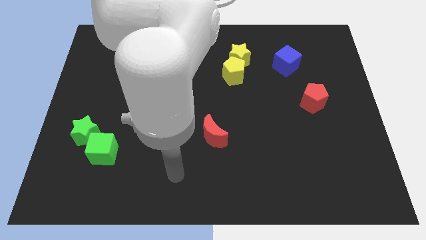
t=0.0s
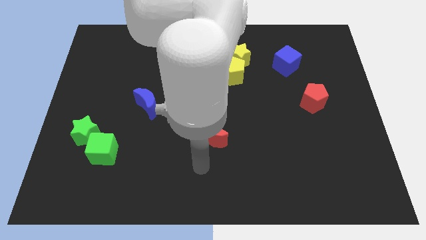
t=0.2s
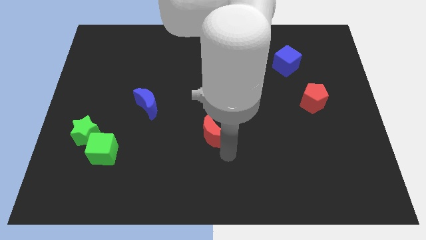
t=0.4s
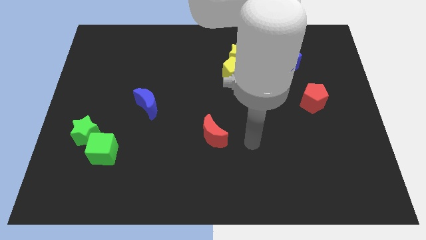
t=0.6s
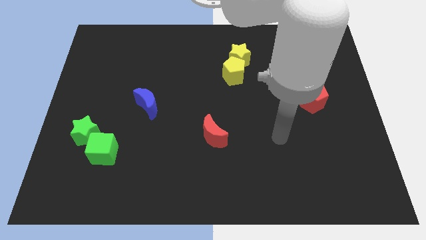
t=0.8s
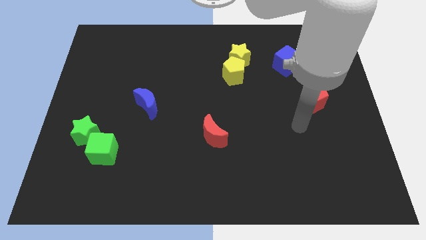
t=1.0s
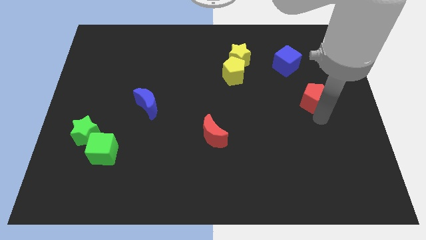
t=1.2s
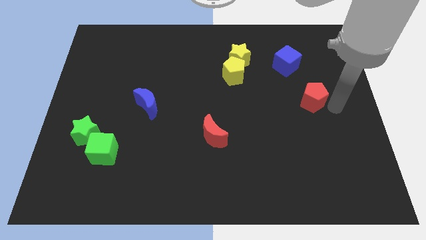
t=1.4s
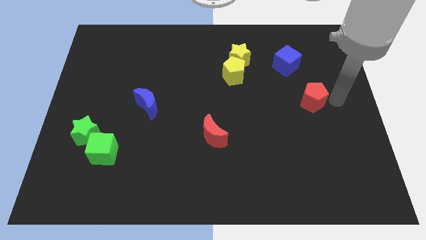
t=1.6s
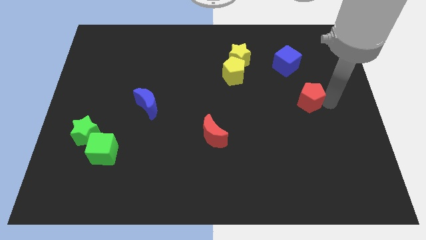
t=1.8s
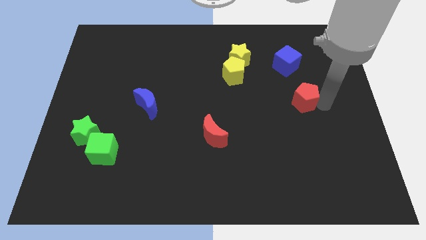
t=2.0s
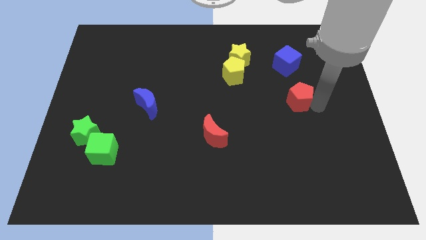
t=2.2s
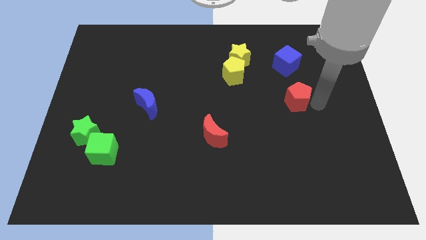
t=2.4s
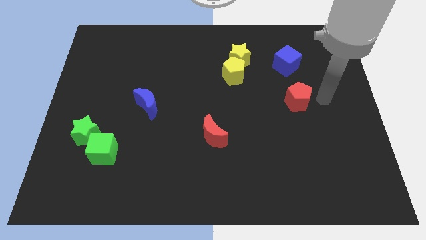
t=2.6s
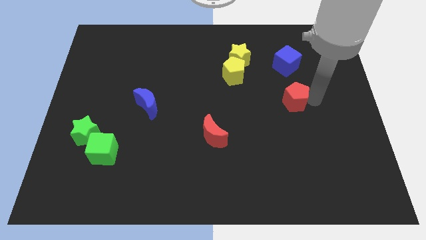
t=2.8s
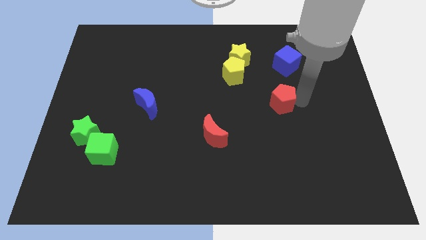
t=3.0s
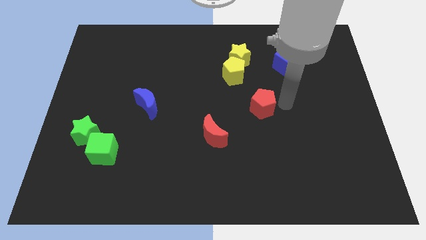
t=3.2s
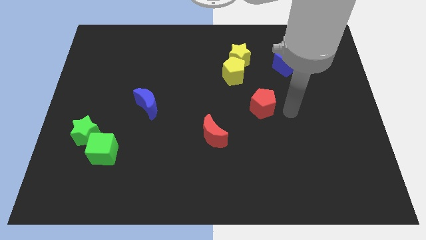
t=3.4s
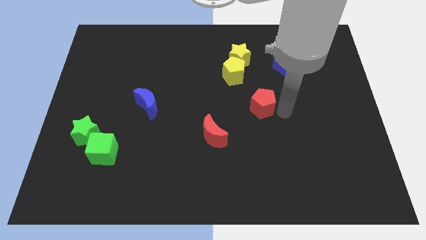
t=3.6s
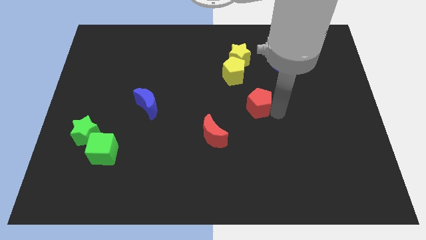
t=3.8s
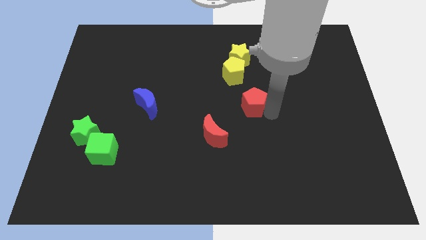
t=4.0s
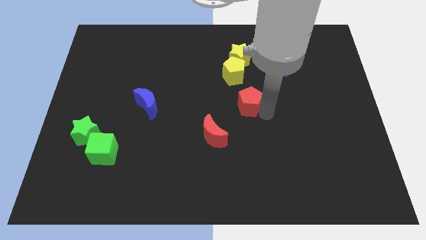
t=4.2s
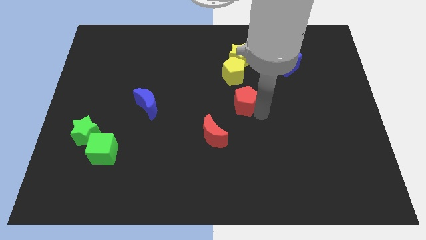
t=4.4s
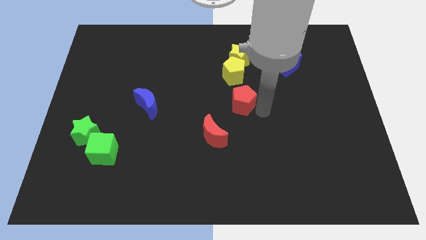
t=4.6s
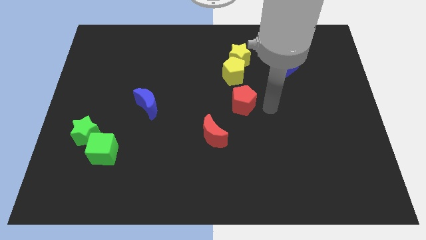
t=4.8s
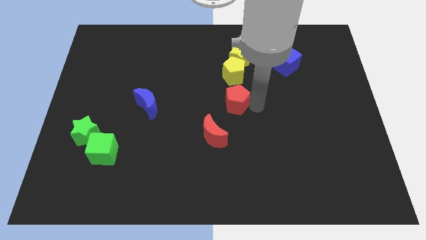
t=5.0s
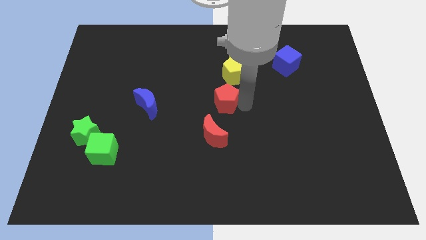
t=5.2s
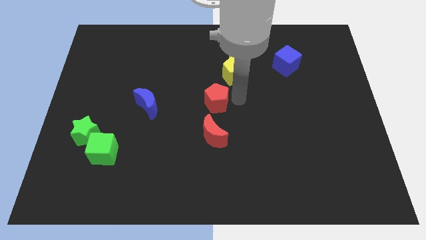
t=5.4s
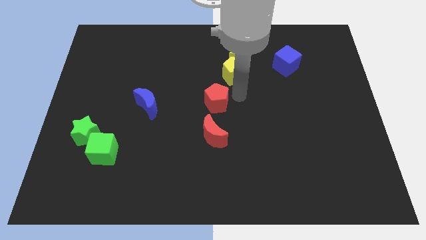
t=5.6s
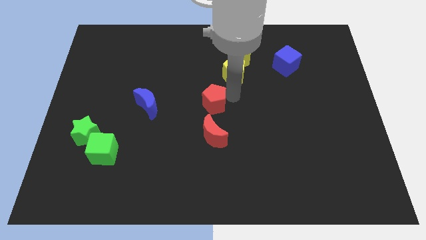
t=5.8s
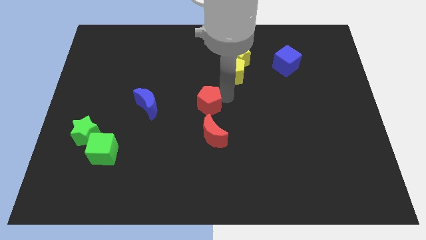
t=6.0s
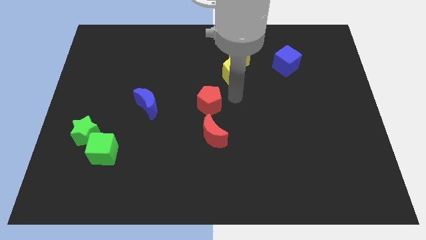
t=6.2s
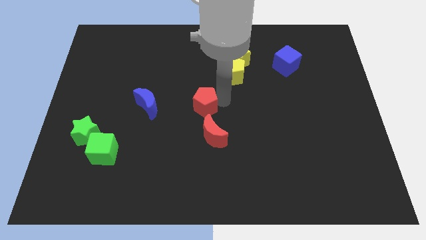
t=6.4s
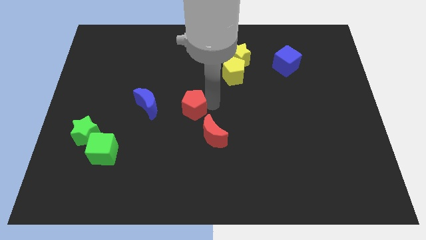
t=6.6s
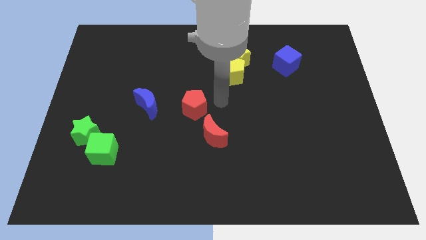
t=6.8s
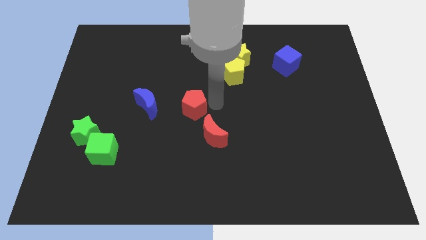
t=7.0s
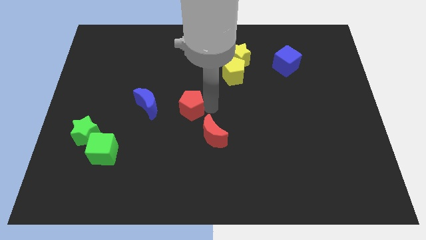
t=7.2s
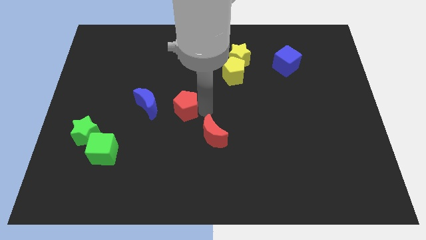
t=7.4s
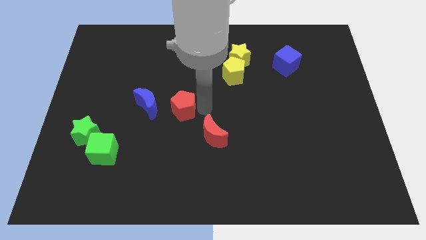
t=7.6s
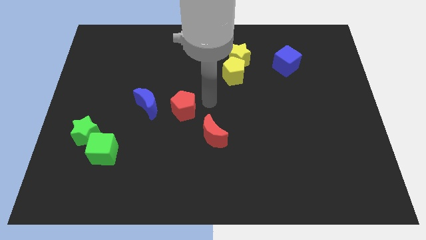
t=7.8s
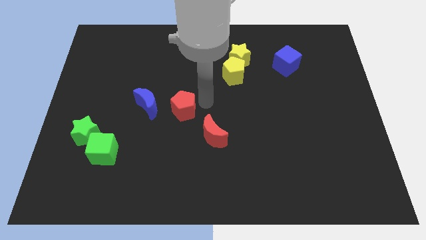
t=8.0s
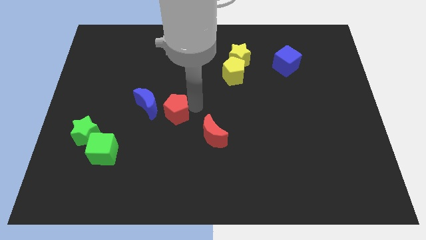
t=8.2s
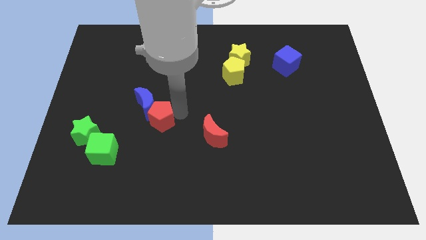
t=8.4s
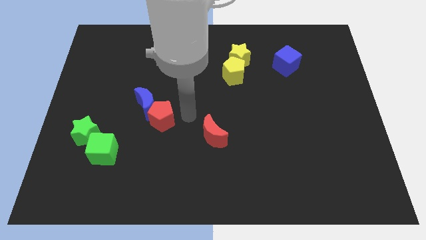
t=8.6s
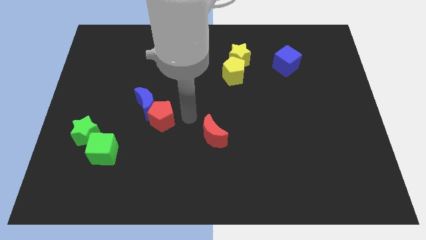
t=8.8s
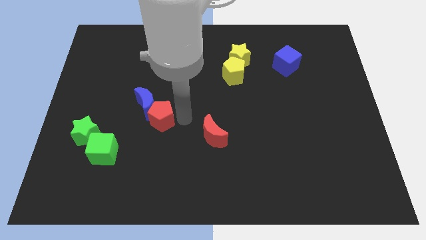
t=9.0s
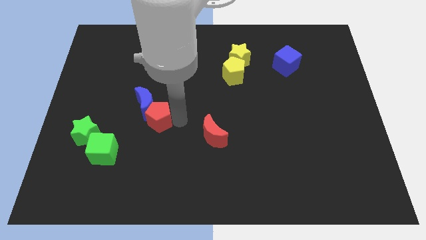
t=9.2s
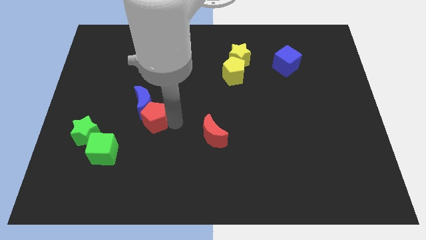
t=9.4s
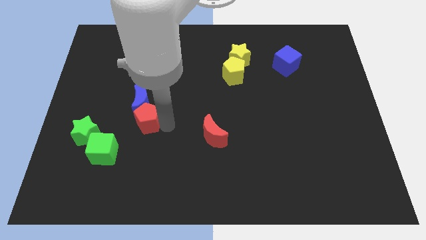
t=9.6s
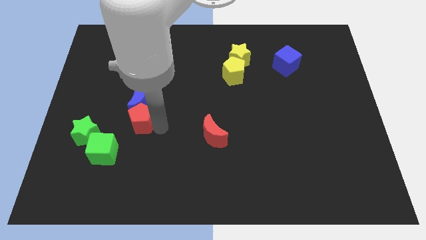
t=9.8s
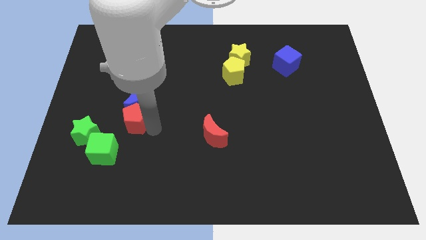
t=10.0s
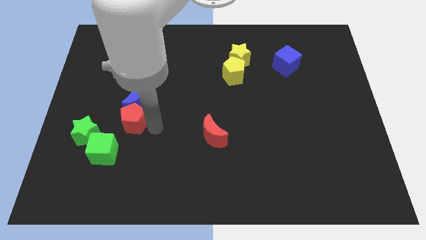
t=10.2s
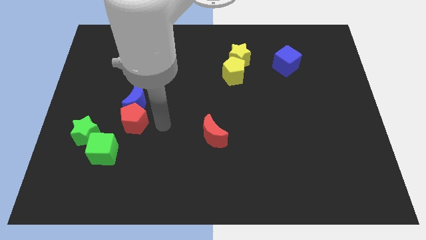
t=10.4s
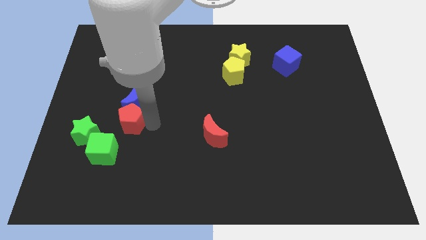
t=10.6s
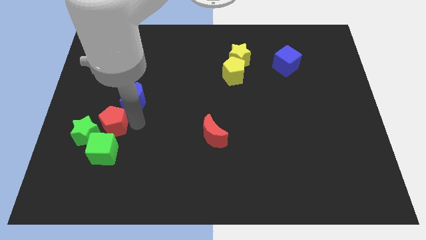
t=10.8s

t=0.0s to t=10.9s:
push the red pentagon next to the green star

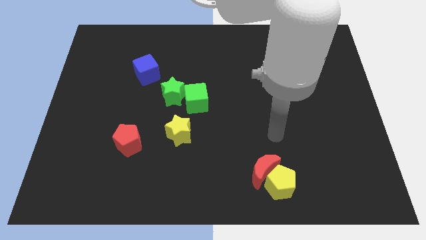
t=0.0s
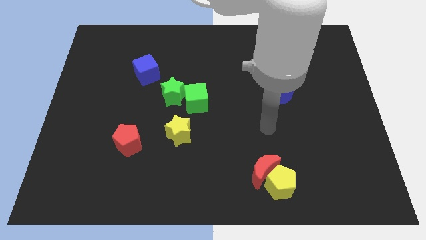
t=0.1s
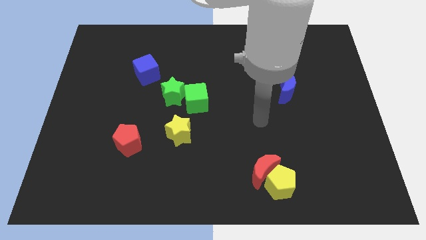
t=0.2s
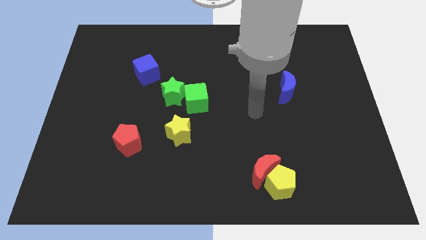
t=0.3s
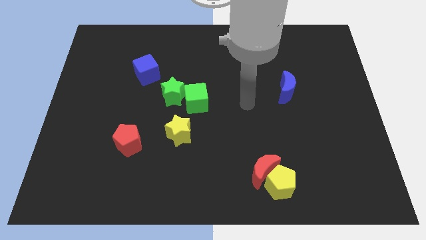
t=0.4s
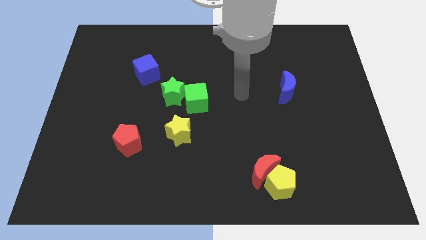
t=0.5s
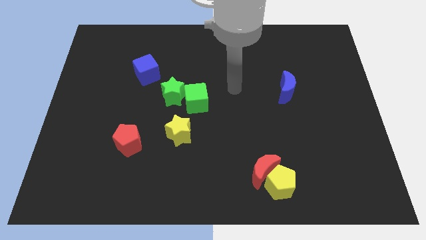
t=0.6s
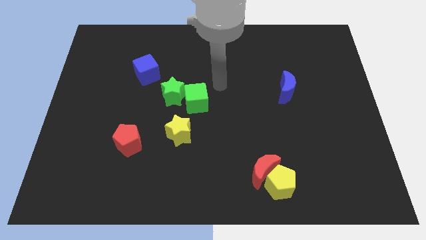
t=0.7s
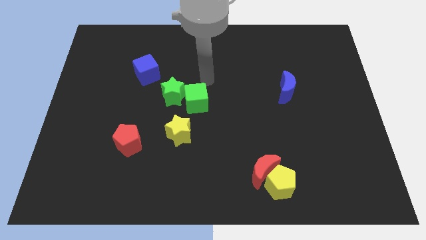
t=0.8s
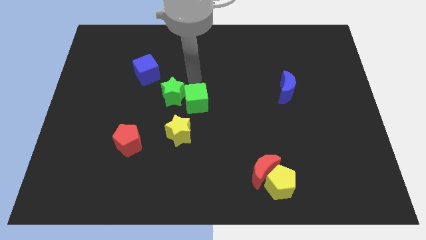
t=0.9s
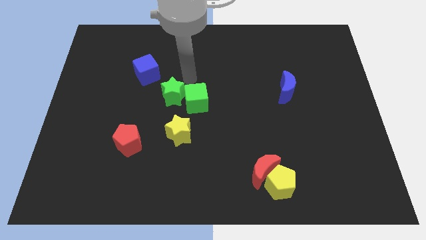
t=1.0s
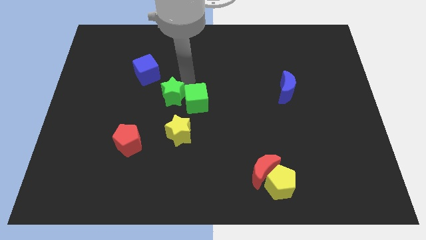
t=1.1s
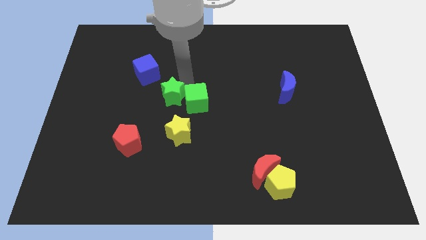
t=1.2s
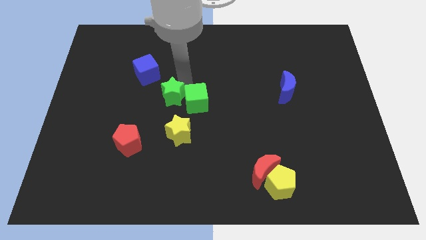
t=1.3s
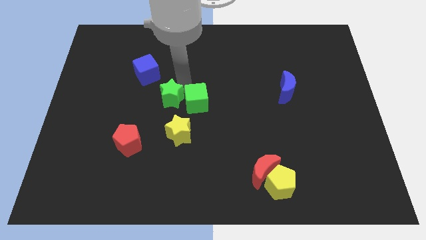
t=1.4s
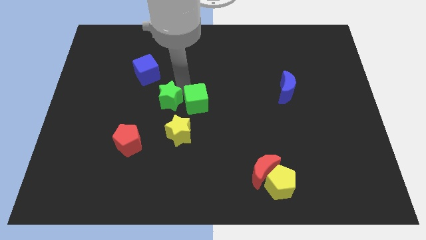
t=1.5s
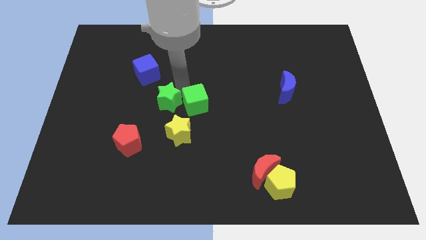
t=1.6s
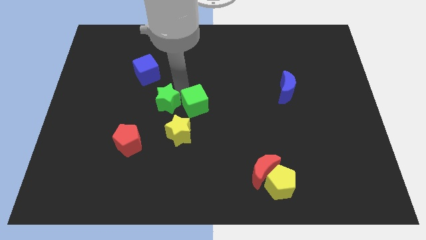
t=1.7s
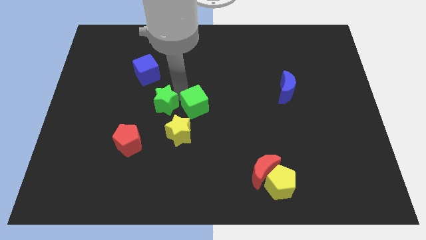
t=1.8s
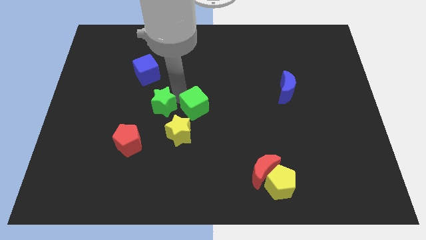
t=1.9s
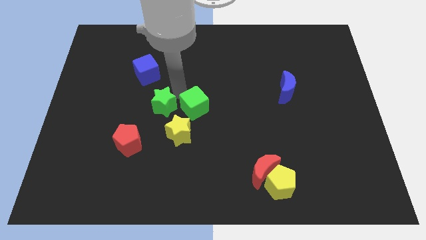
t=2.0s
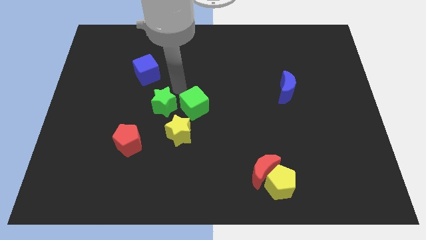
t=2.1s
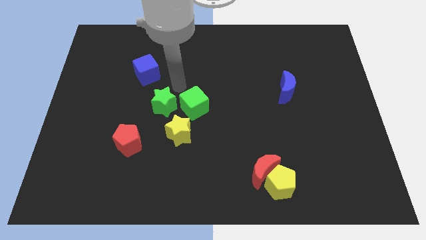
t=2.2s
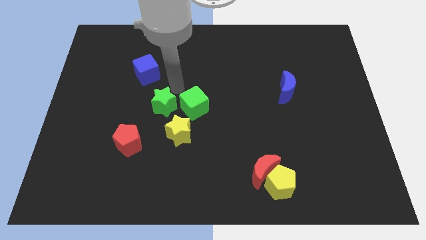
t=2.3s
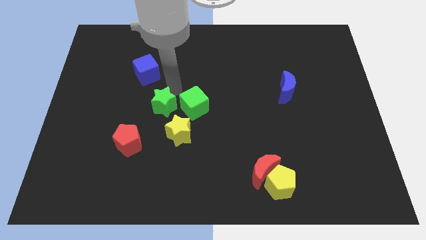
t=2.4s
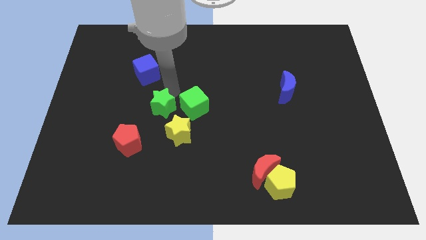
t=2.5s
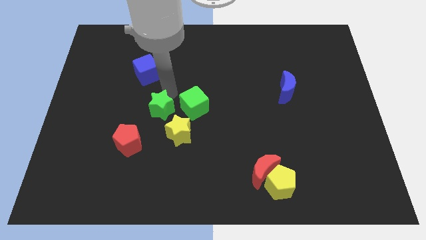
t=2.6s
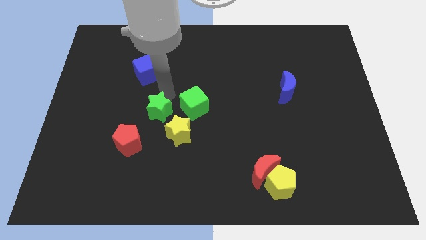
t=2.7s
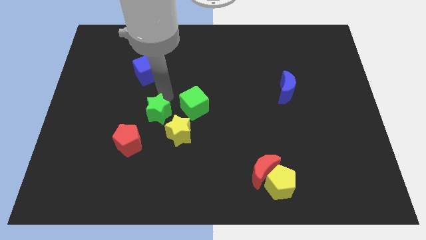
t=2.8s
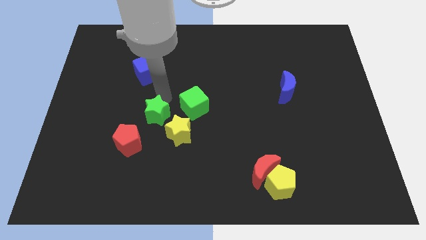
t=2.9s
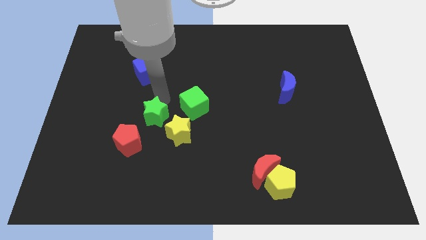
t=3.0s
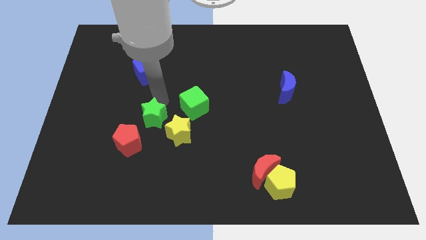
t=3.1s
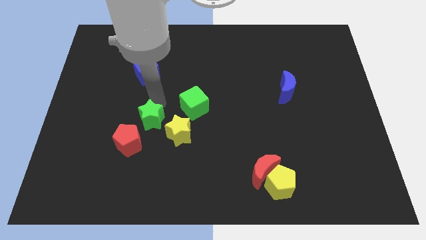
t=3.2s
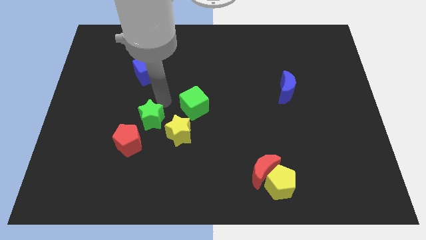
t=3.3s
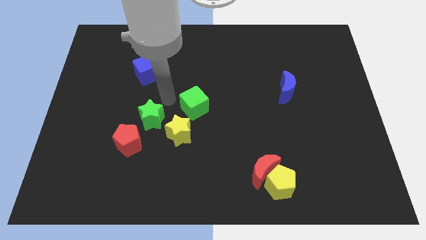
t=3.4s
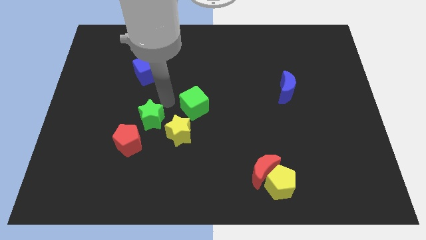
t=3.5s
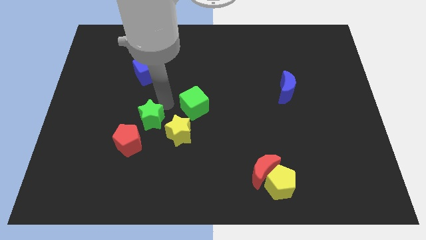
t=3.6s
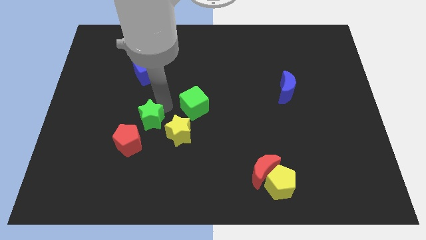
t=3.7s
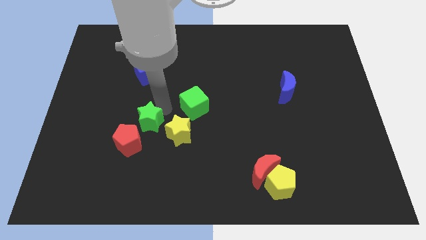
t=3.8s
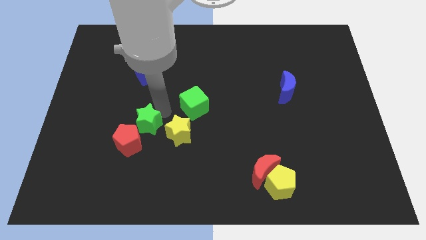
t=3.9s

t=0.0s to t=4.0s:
slide the green star close to the red pentagon
